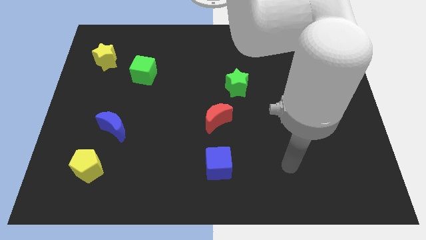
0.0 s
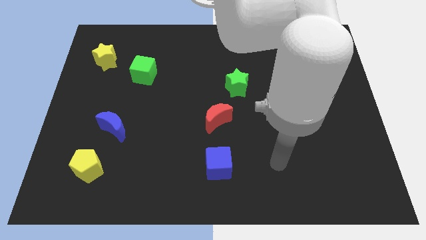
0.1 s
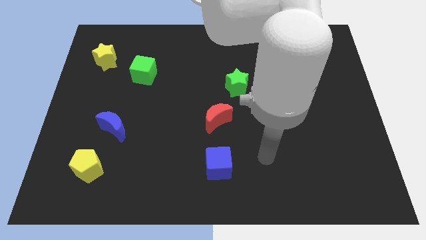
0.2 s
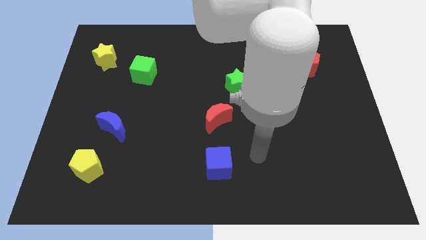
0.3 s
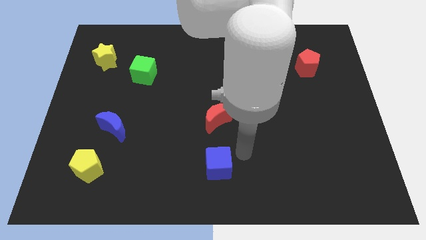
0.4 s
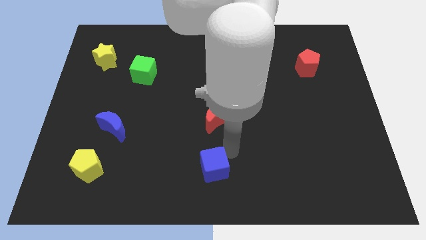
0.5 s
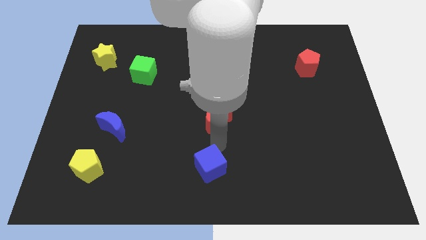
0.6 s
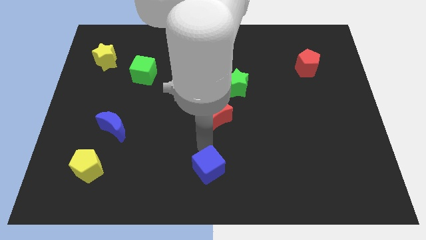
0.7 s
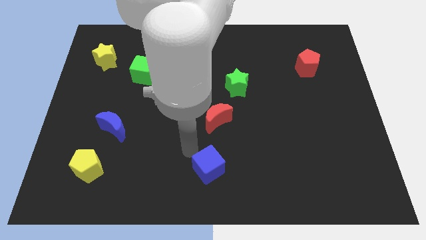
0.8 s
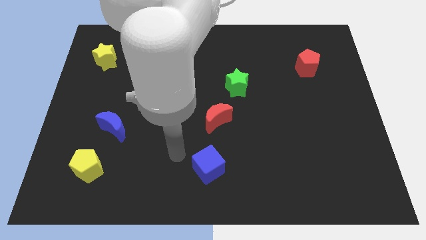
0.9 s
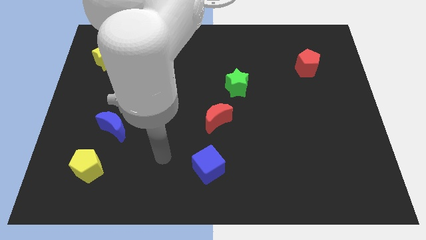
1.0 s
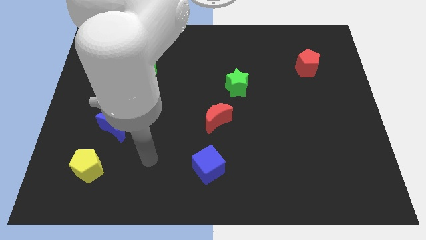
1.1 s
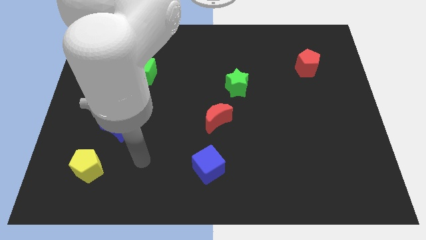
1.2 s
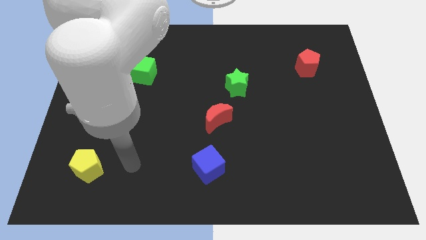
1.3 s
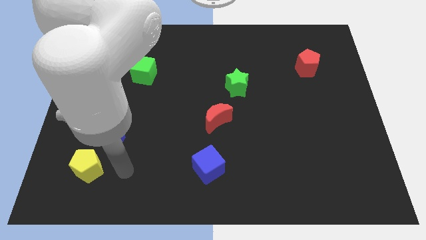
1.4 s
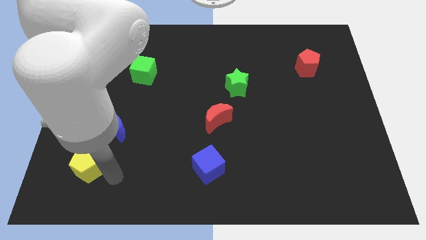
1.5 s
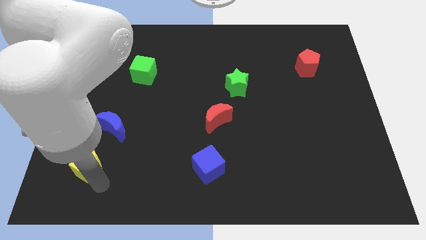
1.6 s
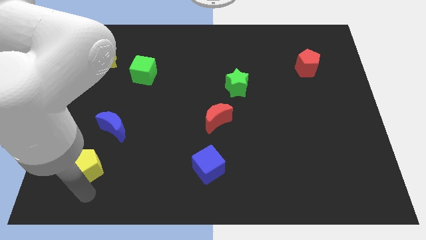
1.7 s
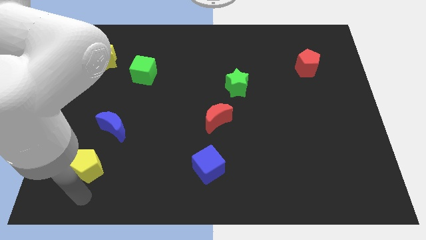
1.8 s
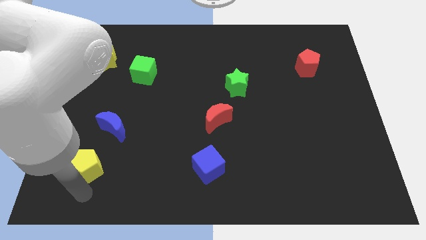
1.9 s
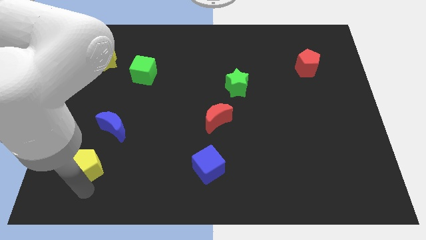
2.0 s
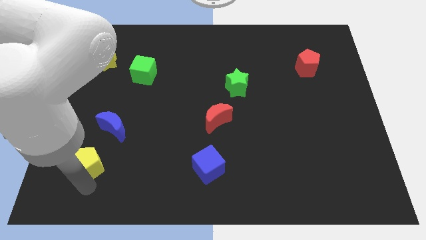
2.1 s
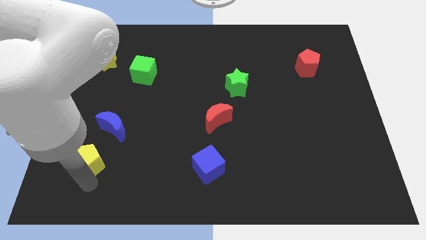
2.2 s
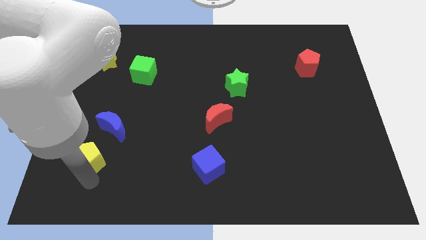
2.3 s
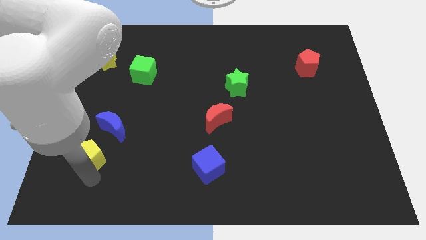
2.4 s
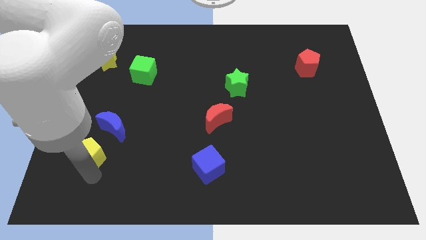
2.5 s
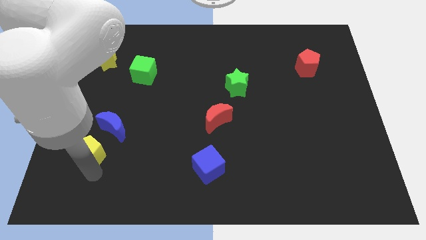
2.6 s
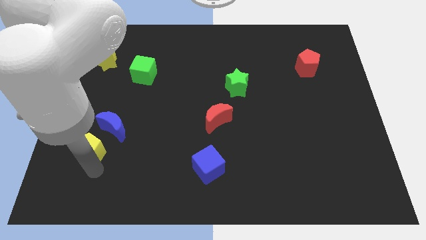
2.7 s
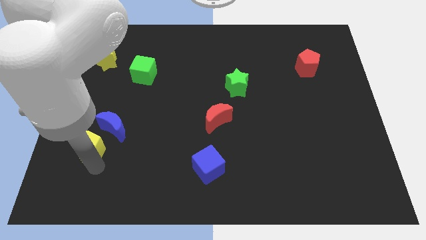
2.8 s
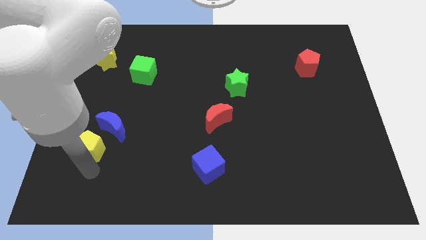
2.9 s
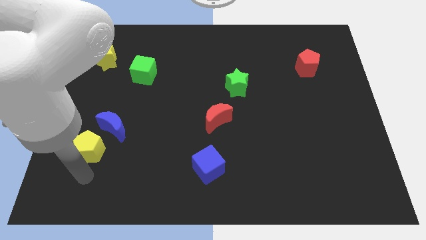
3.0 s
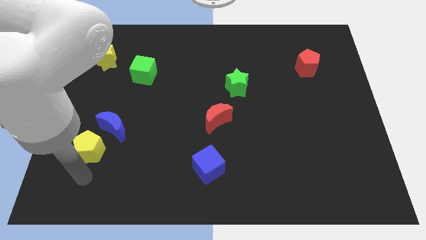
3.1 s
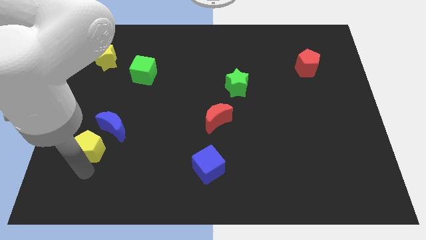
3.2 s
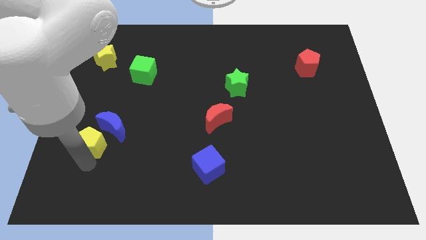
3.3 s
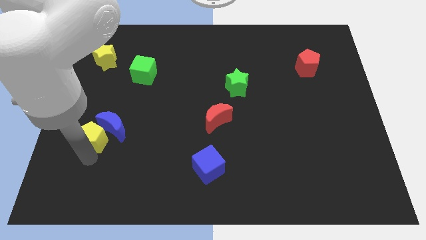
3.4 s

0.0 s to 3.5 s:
slightly move the yellow pentagon up

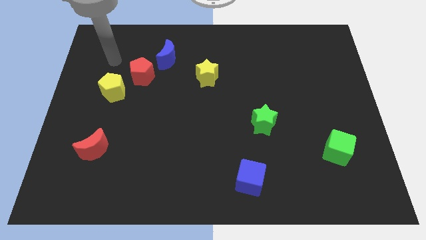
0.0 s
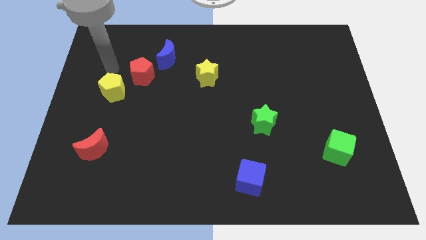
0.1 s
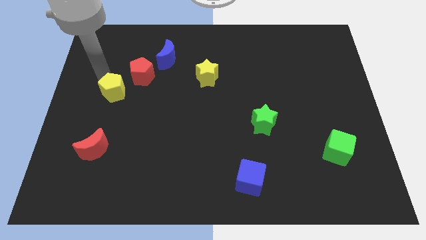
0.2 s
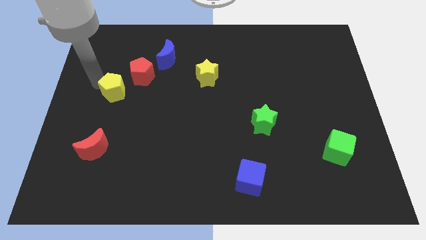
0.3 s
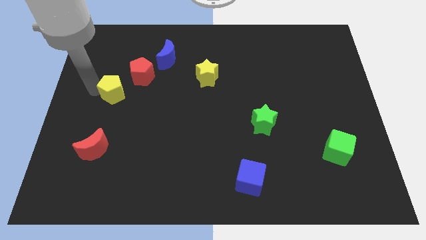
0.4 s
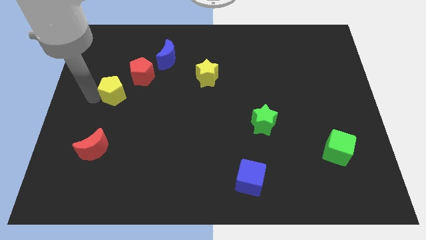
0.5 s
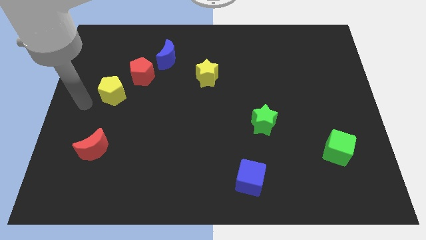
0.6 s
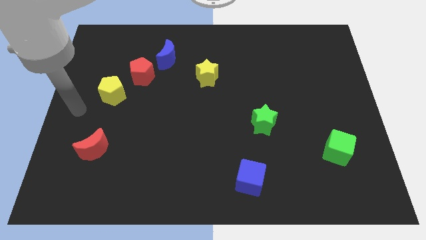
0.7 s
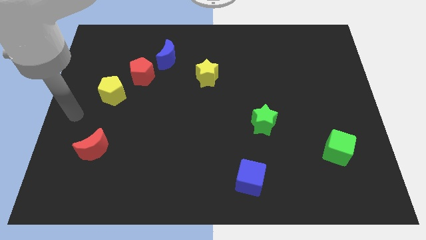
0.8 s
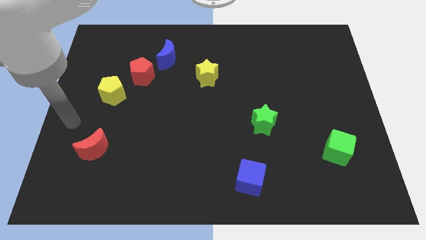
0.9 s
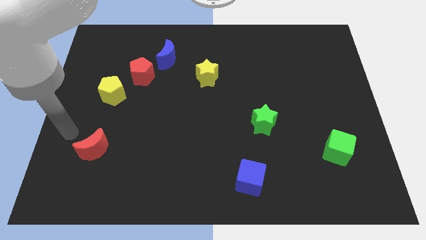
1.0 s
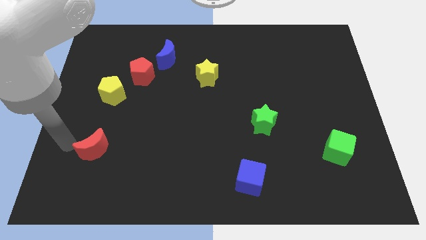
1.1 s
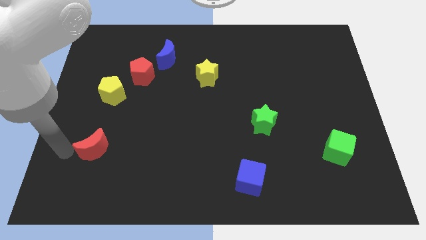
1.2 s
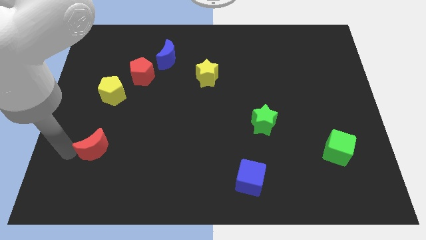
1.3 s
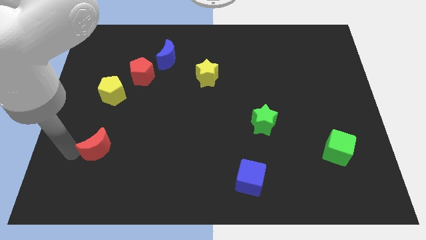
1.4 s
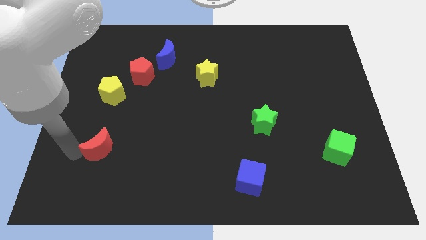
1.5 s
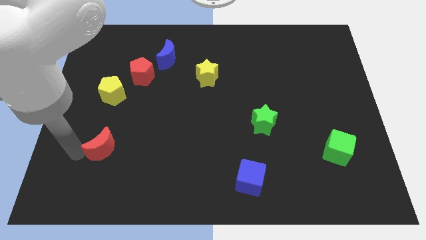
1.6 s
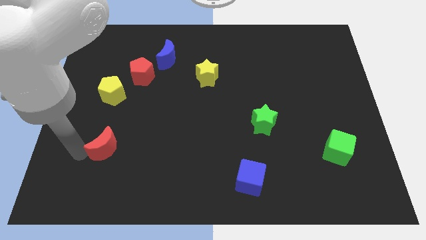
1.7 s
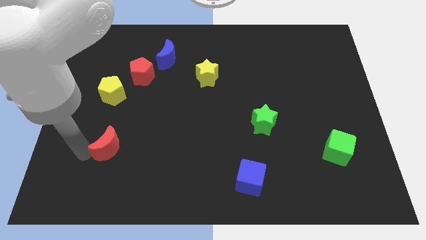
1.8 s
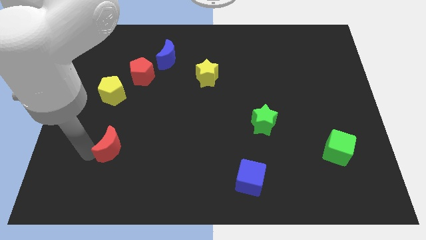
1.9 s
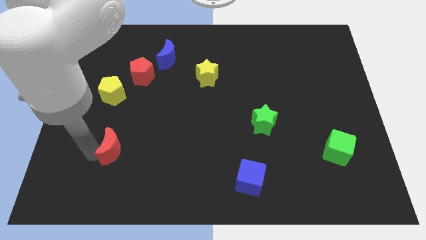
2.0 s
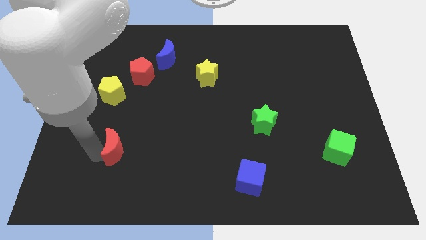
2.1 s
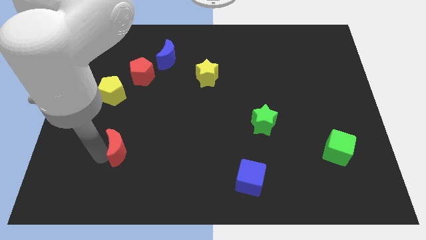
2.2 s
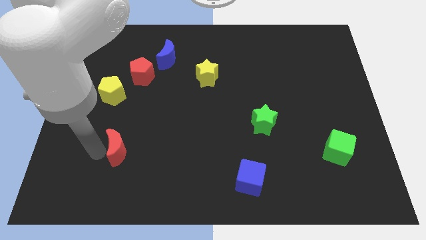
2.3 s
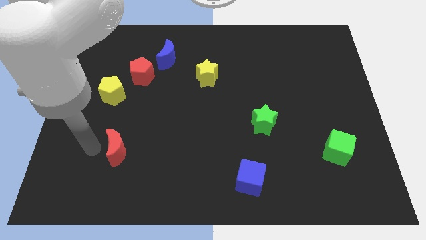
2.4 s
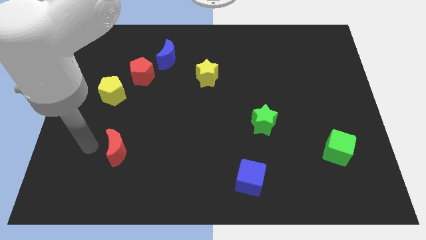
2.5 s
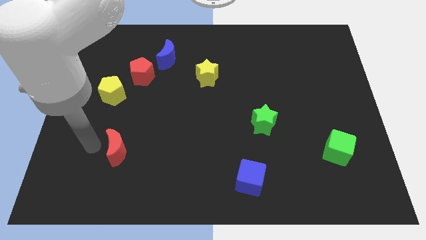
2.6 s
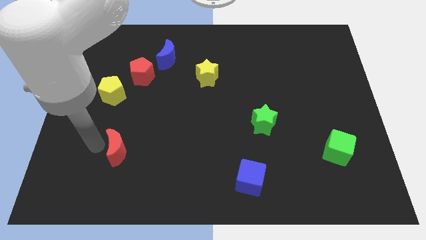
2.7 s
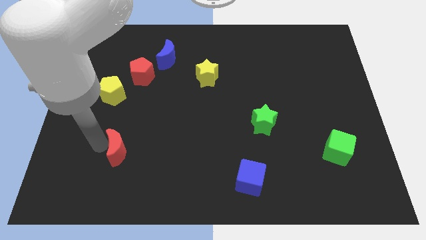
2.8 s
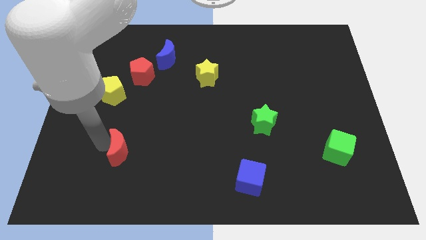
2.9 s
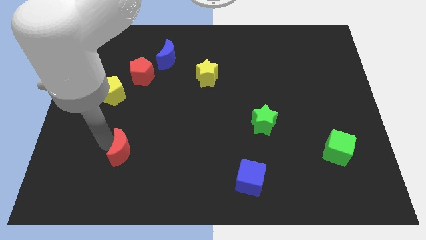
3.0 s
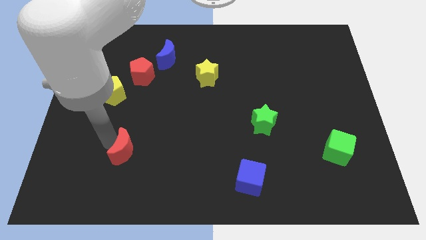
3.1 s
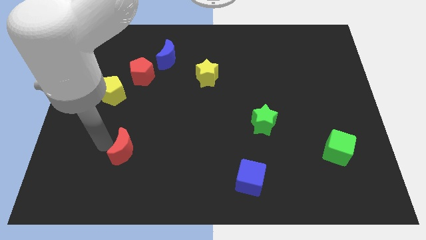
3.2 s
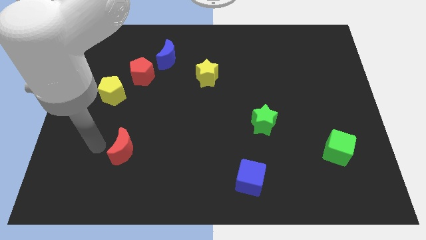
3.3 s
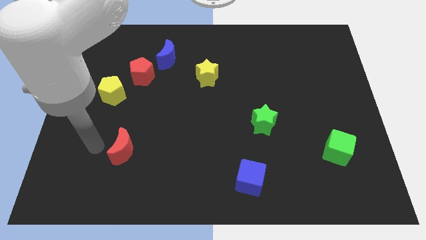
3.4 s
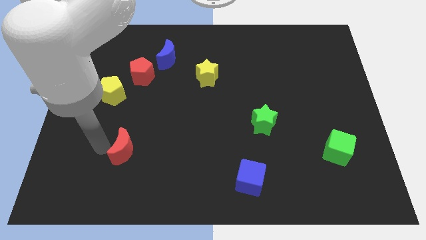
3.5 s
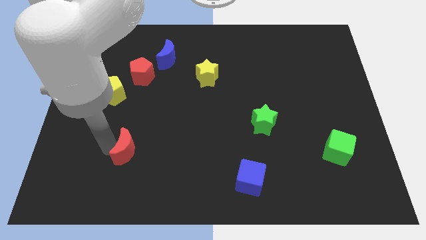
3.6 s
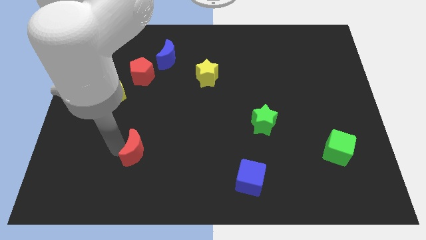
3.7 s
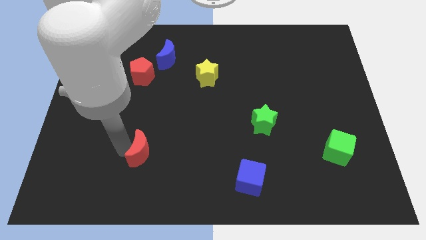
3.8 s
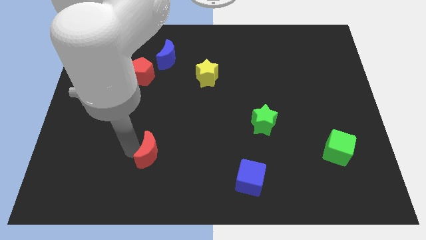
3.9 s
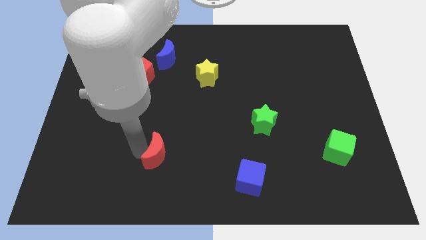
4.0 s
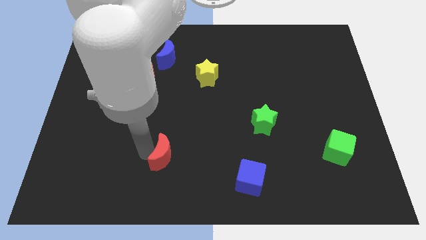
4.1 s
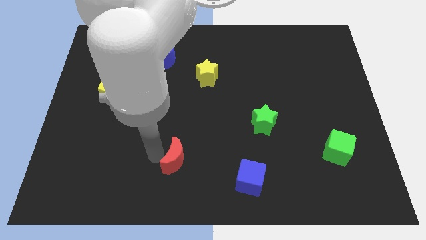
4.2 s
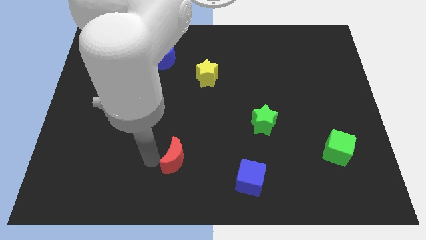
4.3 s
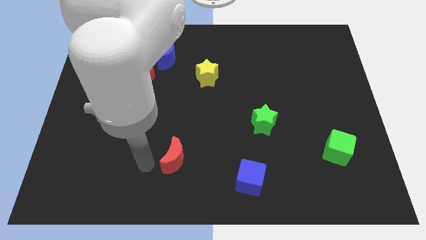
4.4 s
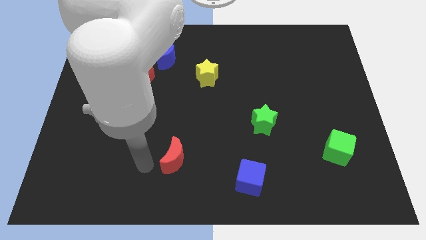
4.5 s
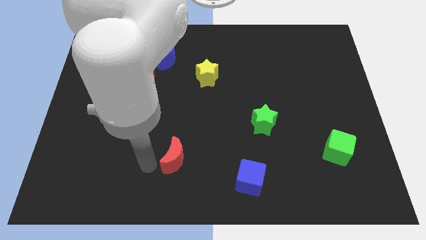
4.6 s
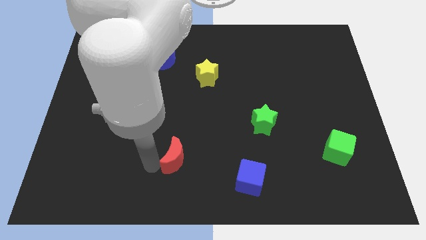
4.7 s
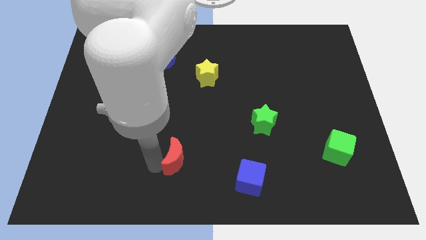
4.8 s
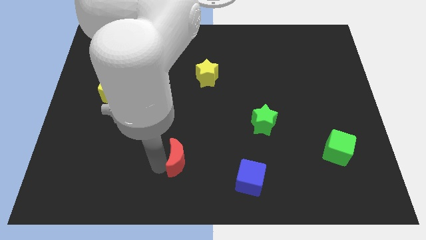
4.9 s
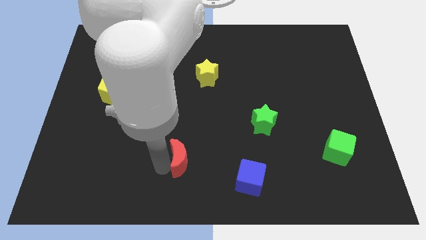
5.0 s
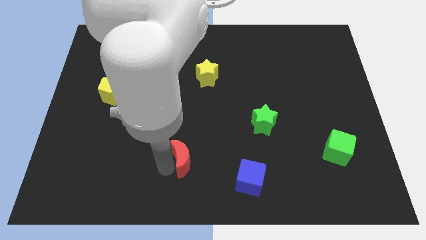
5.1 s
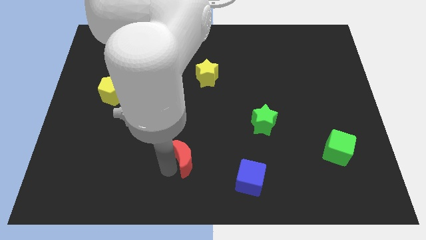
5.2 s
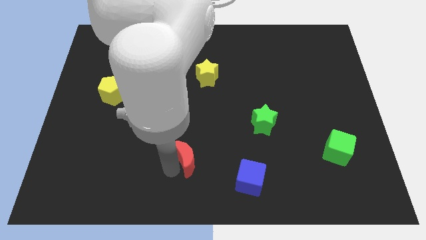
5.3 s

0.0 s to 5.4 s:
slide the red moon right
